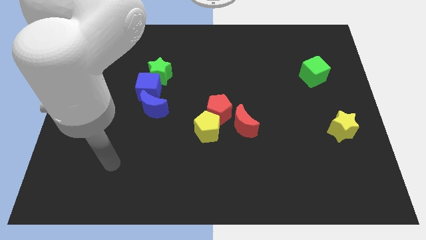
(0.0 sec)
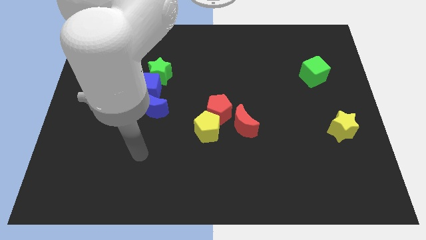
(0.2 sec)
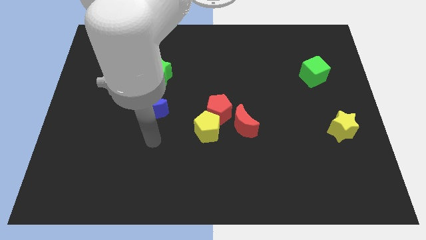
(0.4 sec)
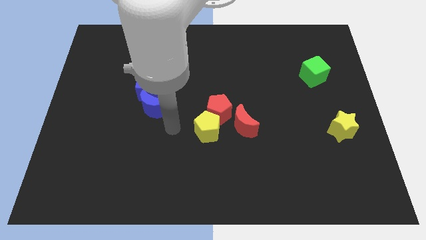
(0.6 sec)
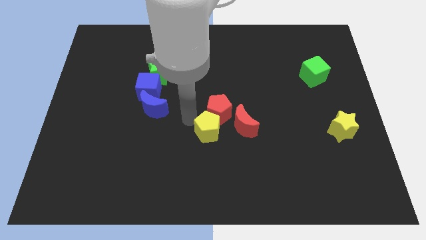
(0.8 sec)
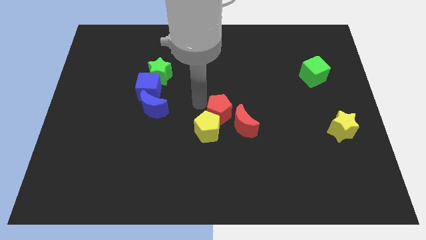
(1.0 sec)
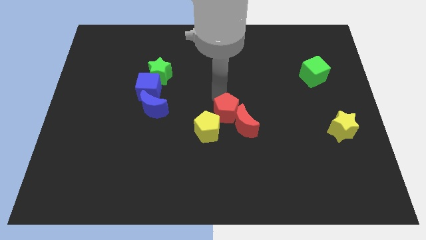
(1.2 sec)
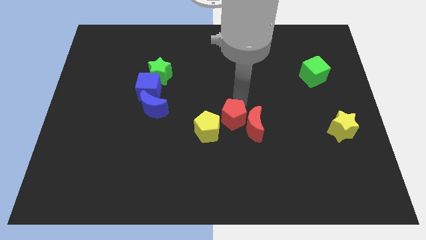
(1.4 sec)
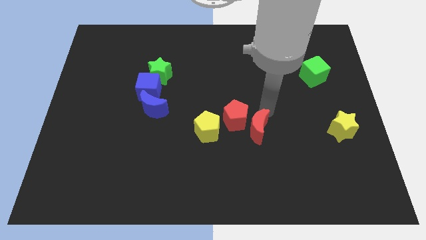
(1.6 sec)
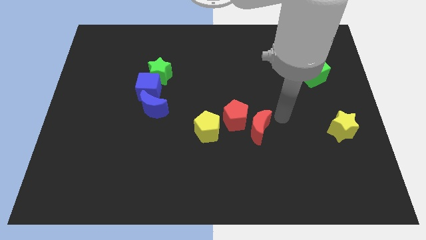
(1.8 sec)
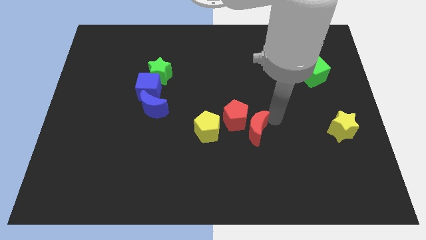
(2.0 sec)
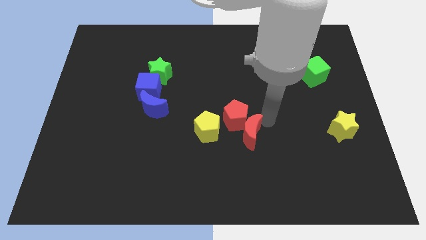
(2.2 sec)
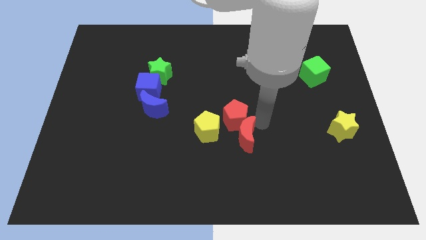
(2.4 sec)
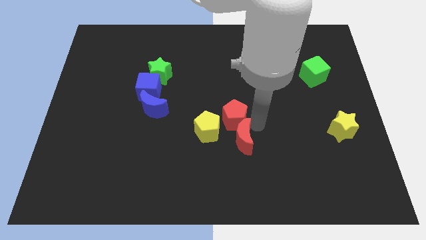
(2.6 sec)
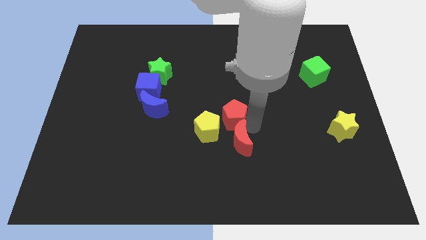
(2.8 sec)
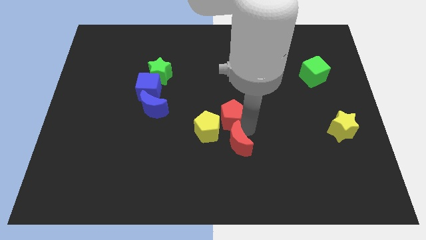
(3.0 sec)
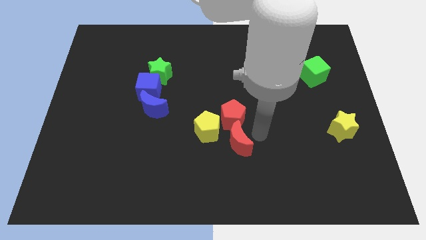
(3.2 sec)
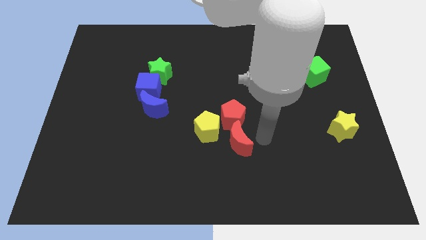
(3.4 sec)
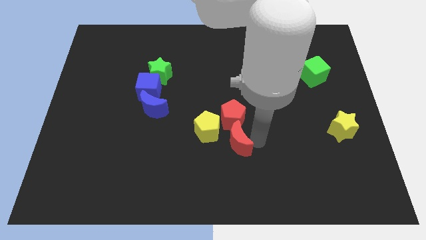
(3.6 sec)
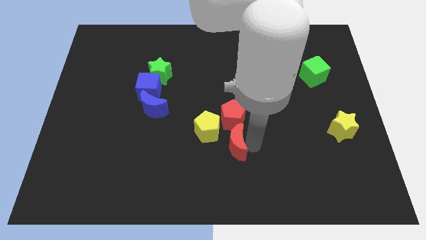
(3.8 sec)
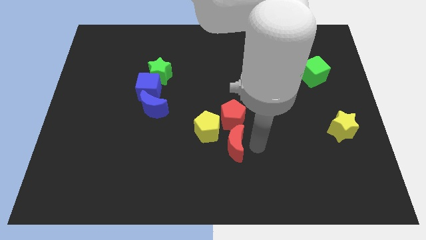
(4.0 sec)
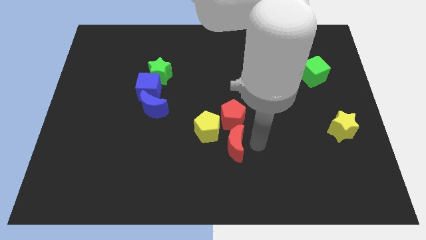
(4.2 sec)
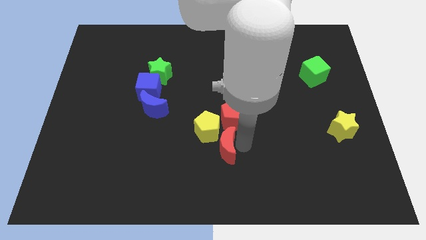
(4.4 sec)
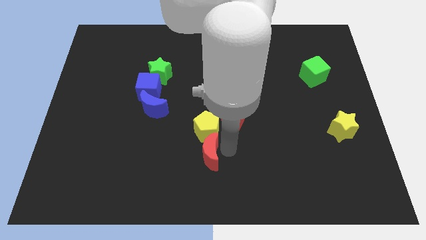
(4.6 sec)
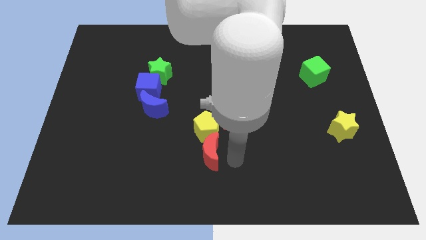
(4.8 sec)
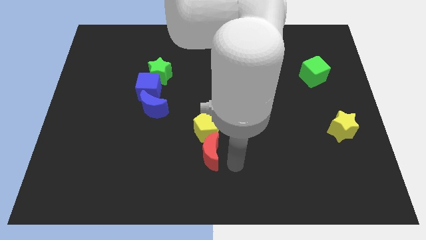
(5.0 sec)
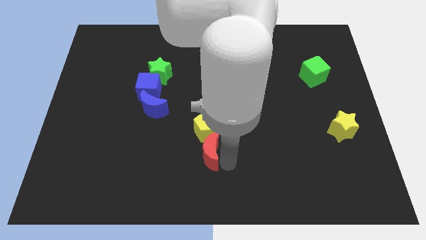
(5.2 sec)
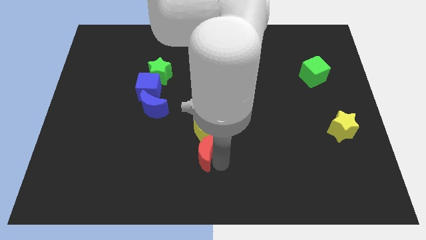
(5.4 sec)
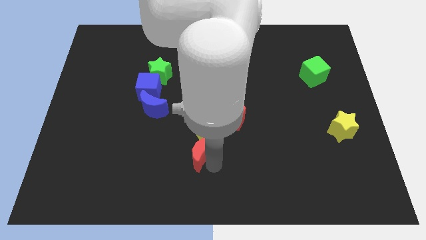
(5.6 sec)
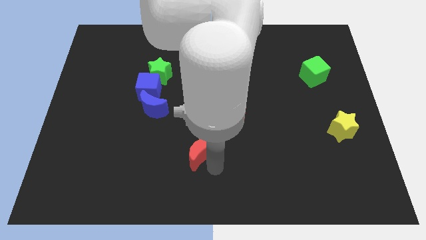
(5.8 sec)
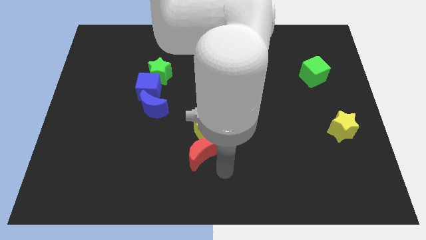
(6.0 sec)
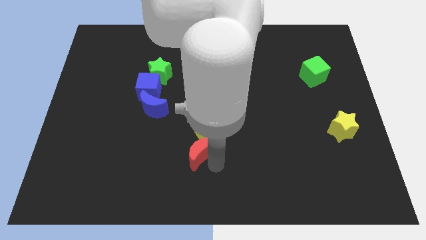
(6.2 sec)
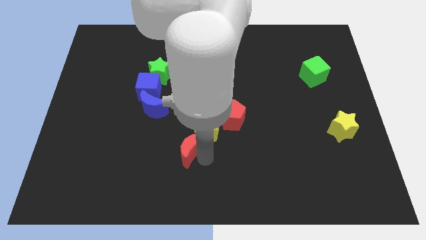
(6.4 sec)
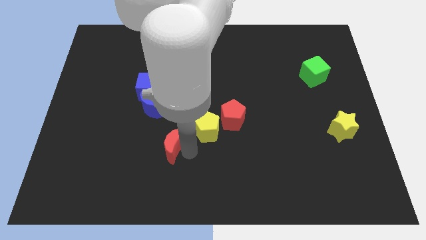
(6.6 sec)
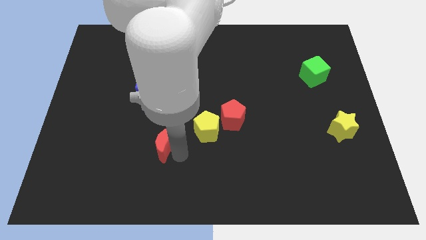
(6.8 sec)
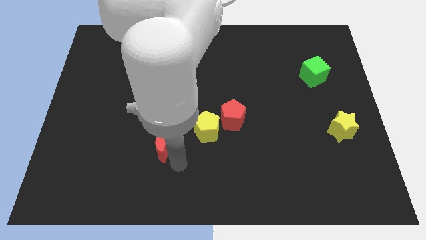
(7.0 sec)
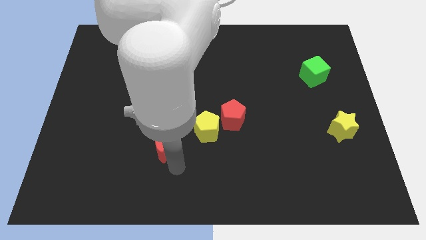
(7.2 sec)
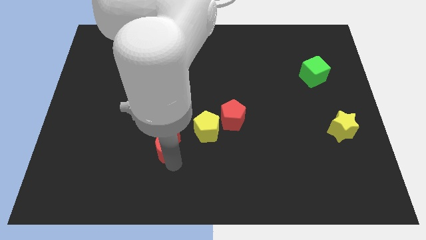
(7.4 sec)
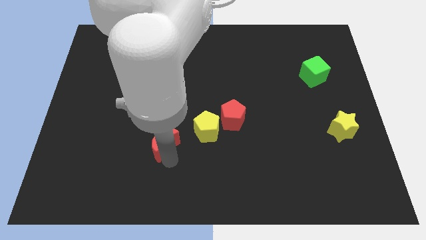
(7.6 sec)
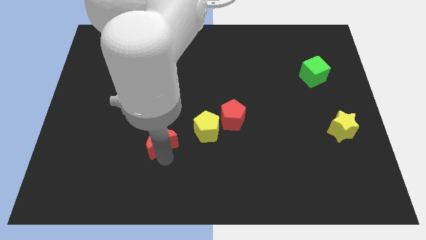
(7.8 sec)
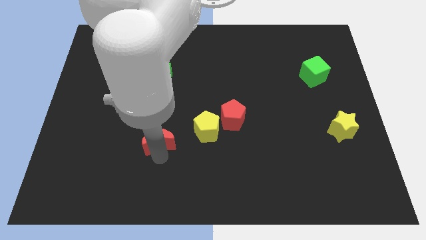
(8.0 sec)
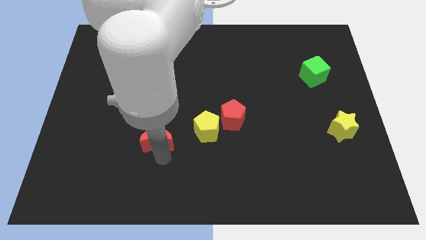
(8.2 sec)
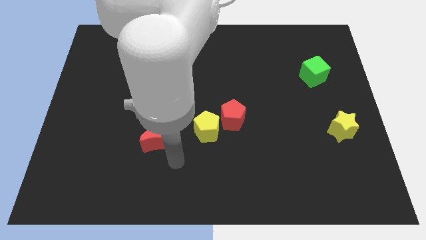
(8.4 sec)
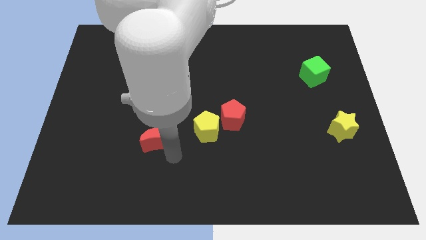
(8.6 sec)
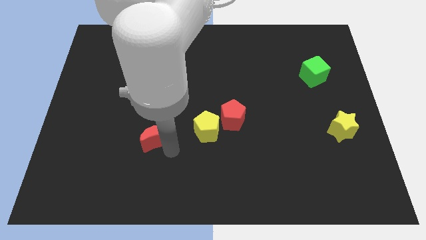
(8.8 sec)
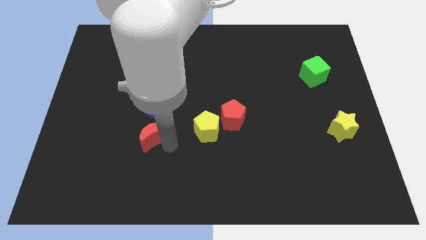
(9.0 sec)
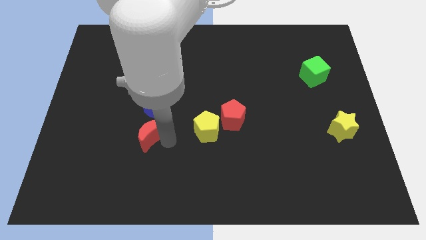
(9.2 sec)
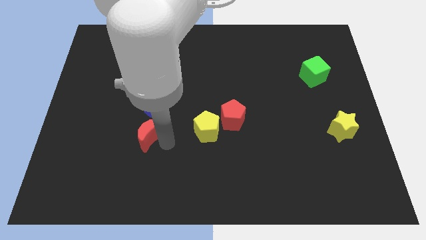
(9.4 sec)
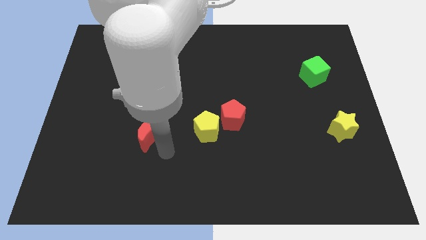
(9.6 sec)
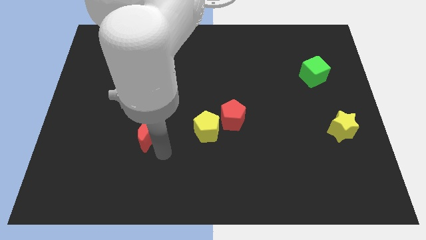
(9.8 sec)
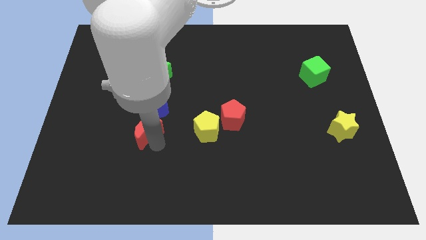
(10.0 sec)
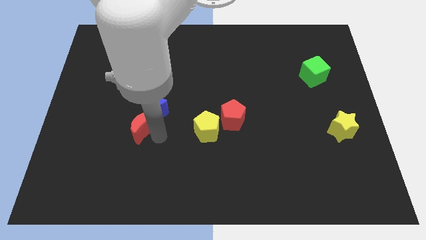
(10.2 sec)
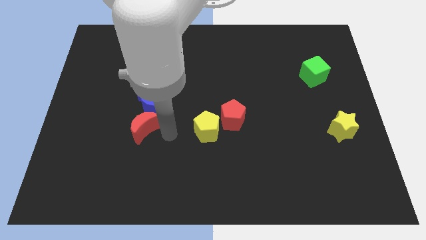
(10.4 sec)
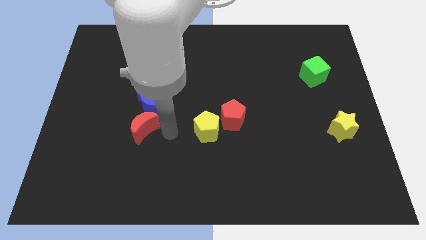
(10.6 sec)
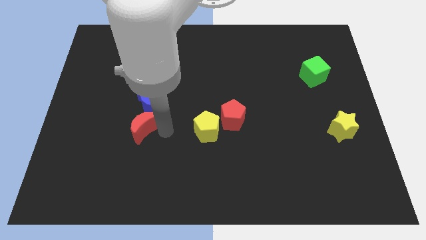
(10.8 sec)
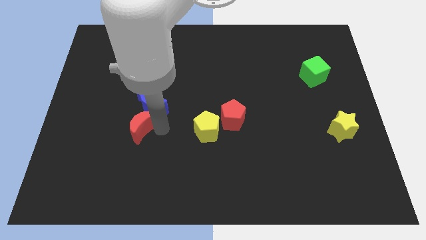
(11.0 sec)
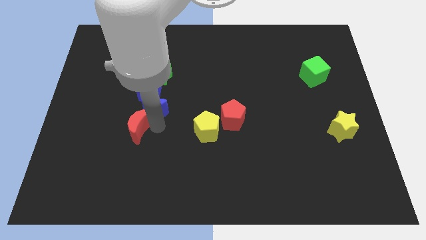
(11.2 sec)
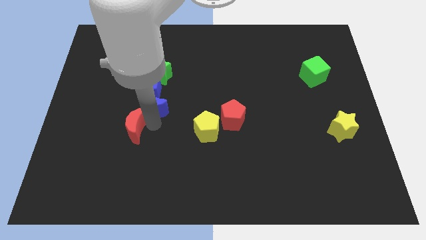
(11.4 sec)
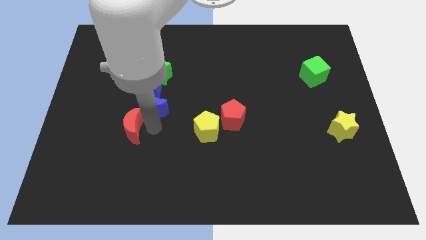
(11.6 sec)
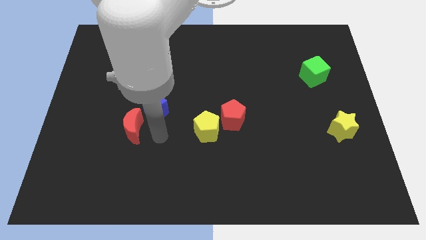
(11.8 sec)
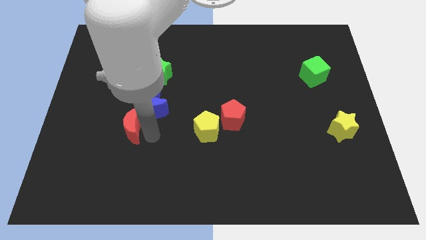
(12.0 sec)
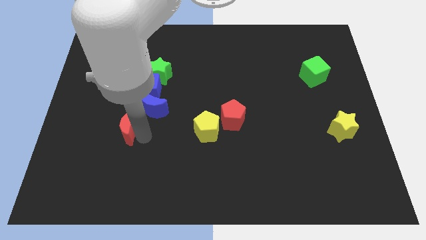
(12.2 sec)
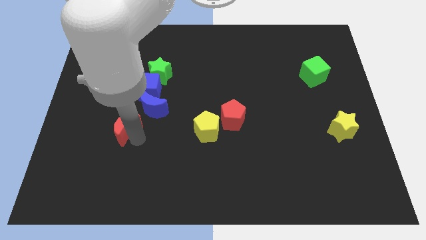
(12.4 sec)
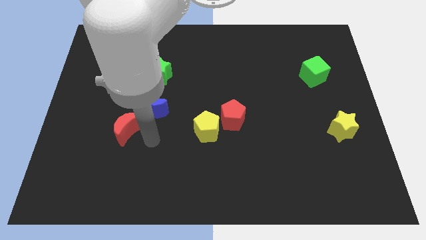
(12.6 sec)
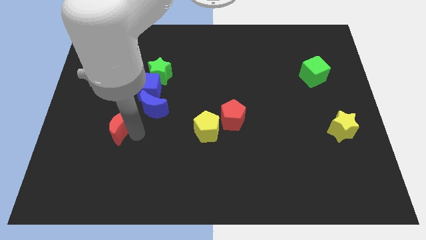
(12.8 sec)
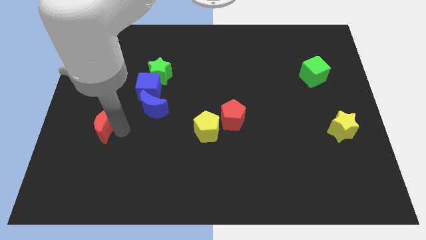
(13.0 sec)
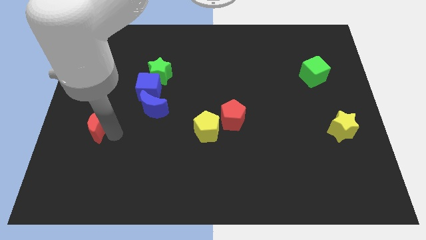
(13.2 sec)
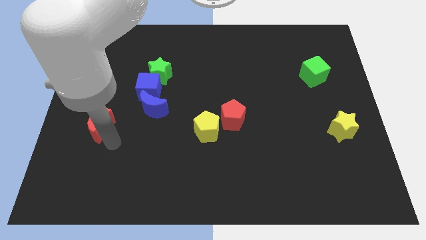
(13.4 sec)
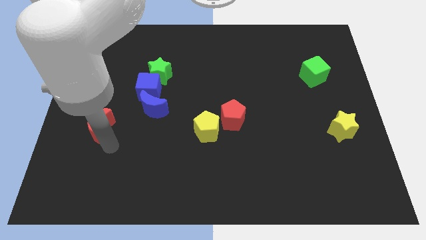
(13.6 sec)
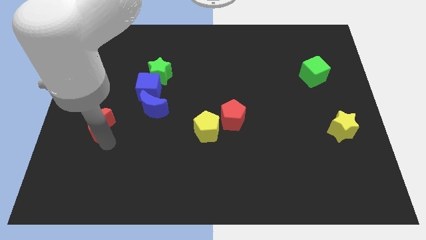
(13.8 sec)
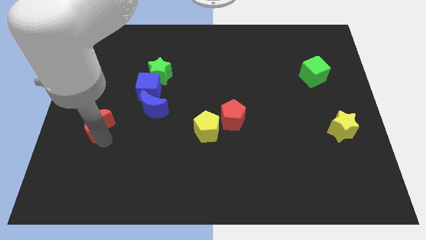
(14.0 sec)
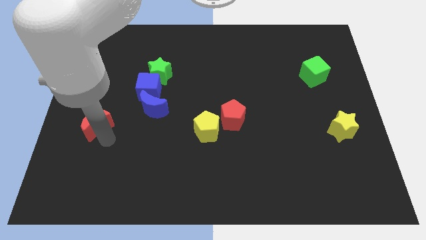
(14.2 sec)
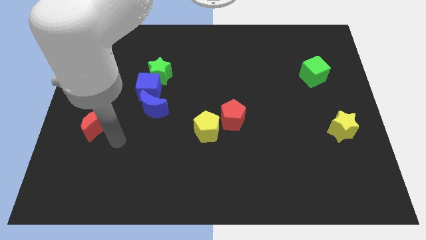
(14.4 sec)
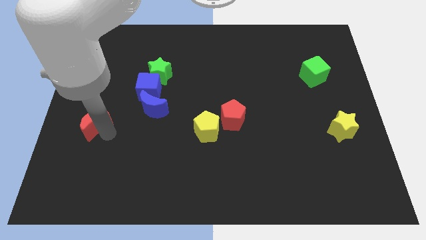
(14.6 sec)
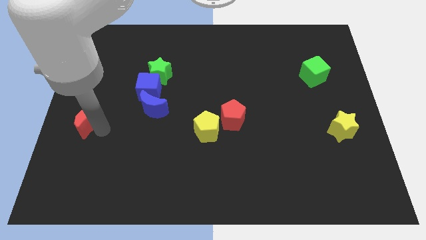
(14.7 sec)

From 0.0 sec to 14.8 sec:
slide the red moon to the left side
